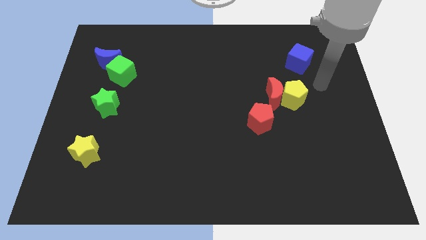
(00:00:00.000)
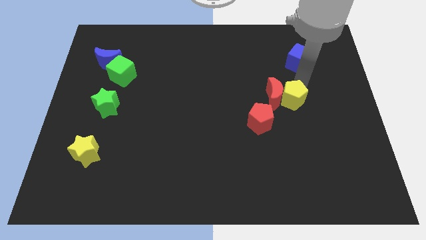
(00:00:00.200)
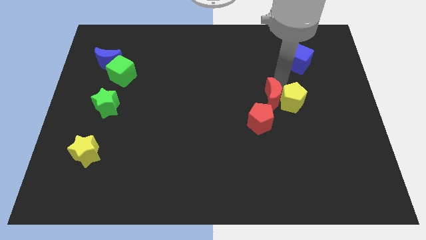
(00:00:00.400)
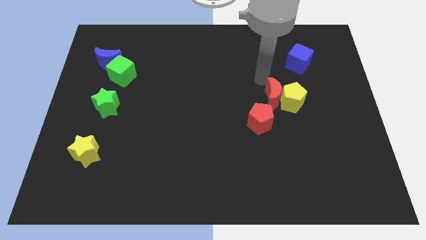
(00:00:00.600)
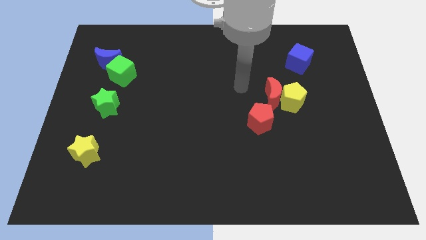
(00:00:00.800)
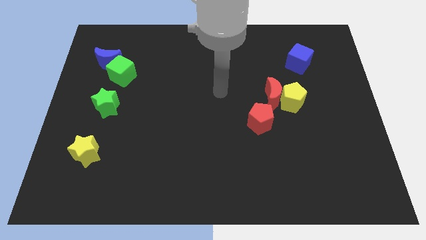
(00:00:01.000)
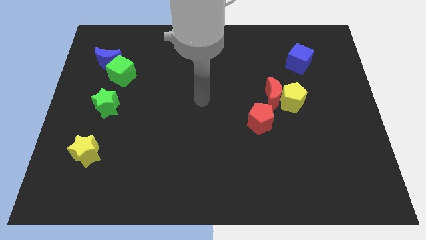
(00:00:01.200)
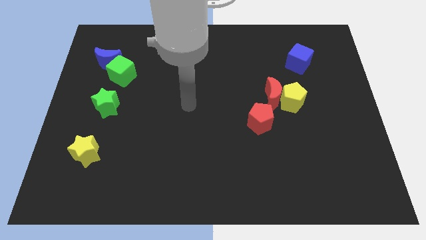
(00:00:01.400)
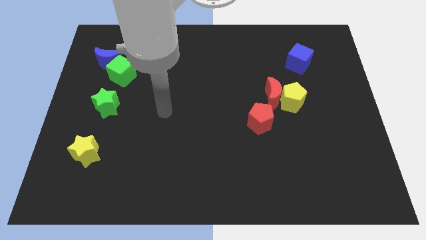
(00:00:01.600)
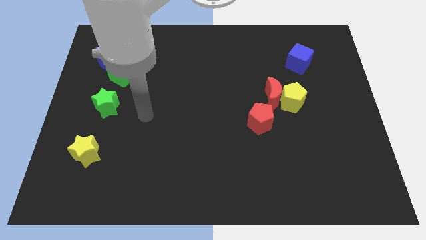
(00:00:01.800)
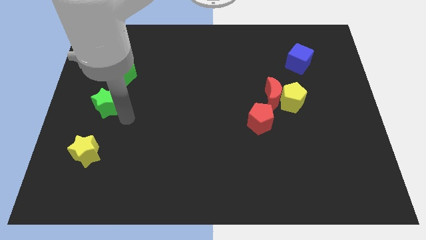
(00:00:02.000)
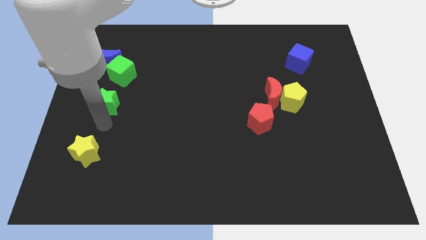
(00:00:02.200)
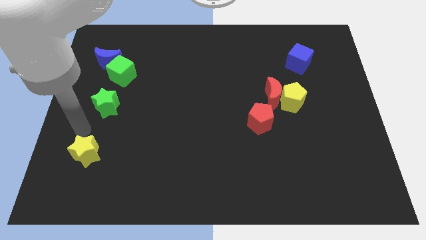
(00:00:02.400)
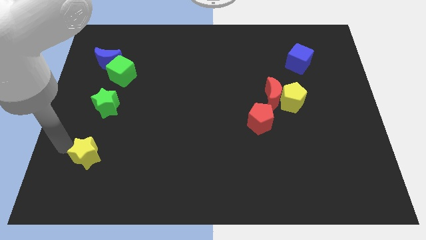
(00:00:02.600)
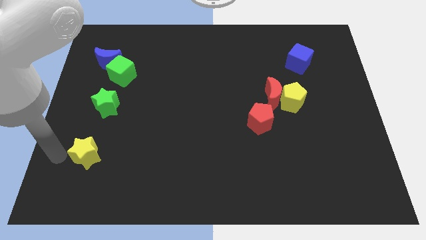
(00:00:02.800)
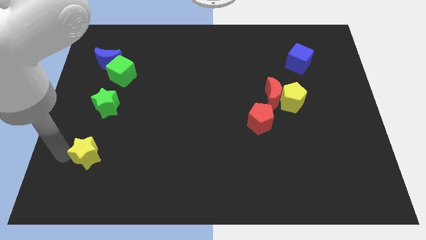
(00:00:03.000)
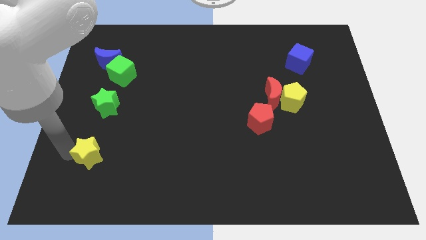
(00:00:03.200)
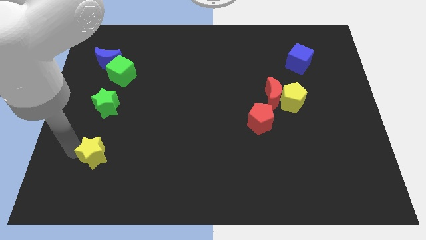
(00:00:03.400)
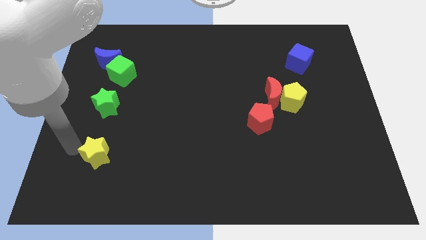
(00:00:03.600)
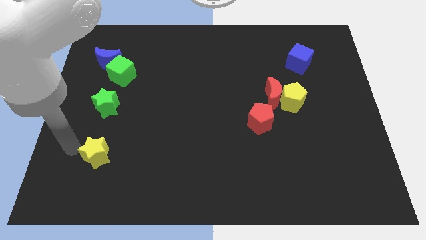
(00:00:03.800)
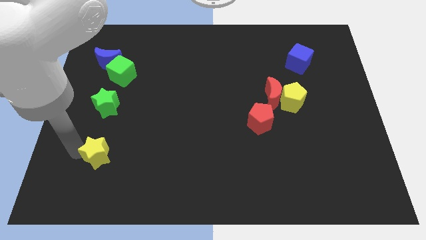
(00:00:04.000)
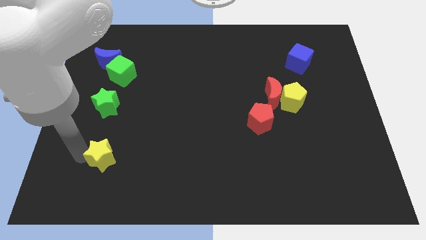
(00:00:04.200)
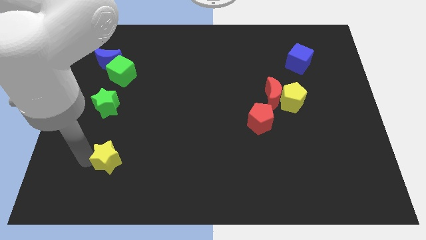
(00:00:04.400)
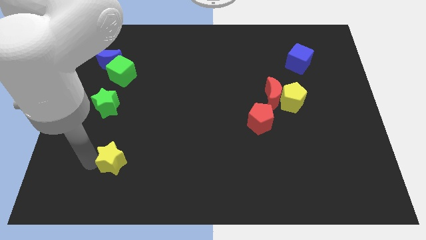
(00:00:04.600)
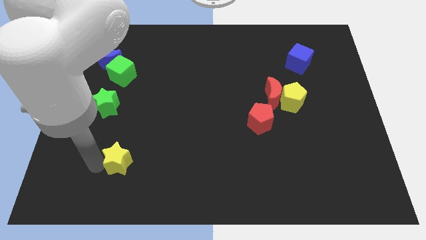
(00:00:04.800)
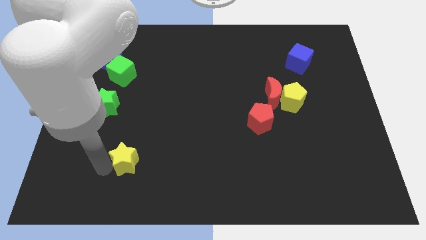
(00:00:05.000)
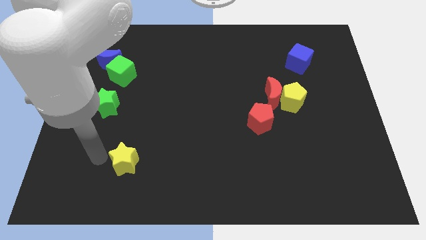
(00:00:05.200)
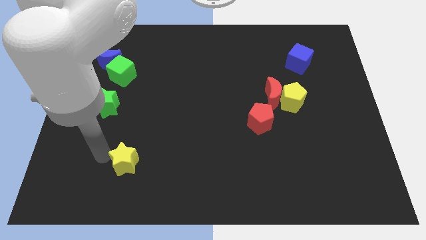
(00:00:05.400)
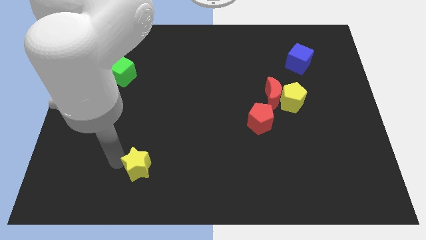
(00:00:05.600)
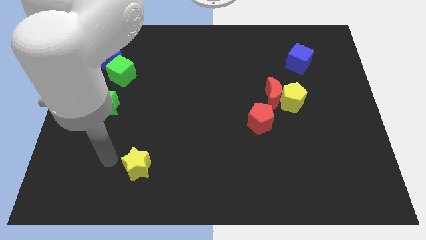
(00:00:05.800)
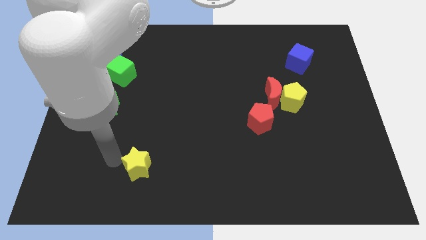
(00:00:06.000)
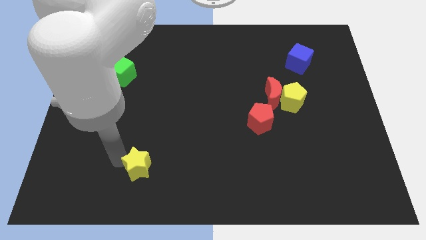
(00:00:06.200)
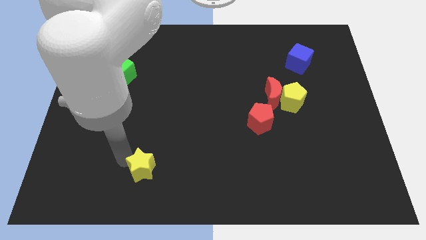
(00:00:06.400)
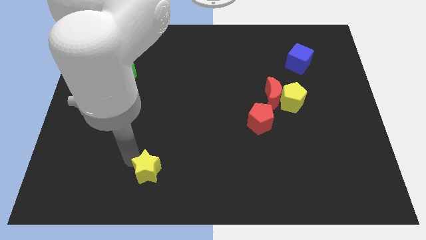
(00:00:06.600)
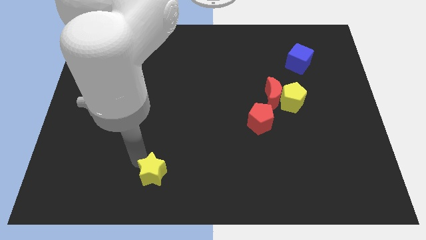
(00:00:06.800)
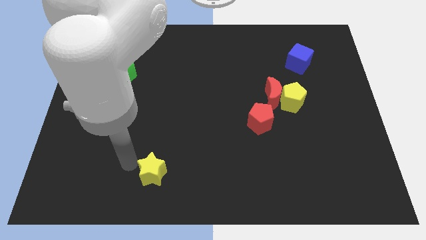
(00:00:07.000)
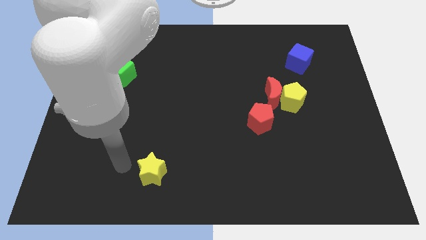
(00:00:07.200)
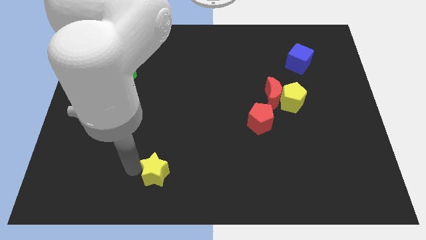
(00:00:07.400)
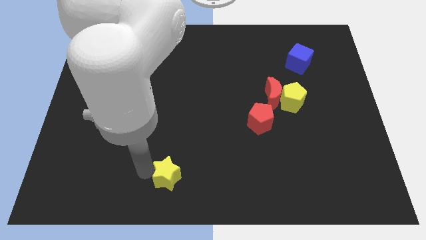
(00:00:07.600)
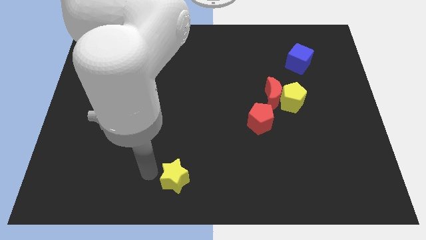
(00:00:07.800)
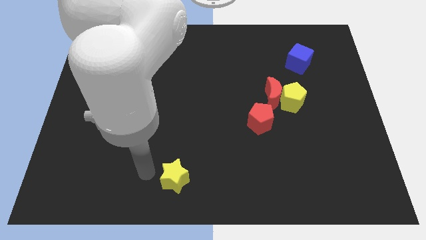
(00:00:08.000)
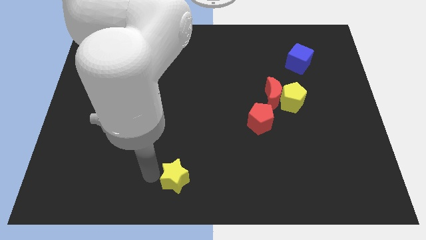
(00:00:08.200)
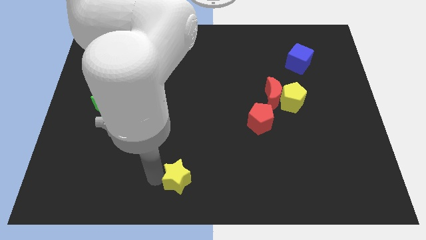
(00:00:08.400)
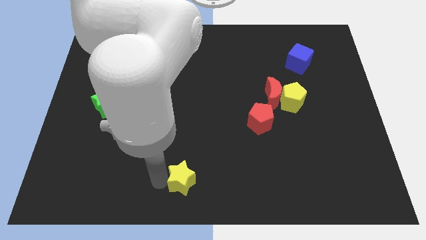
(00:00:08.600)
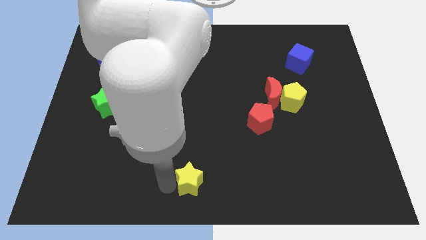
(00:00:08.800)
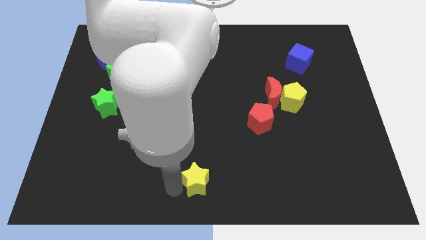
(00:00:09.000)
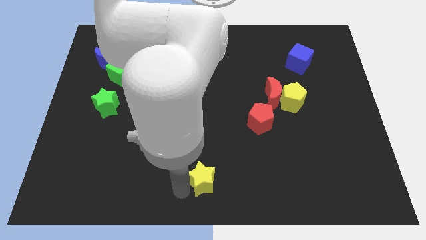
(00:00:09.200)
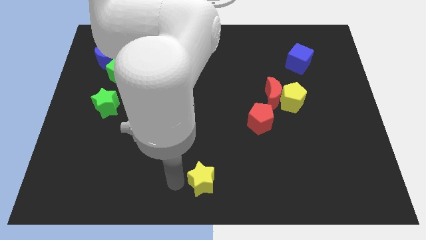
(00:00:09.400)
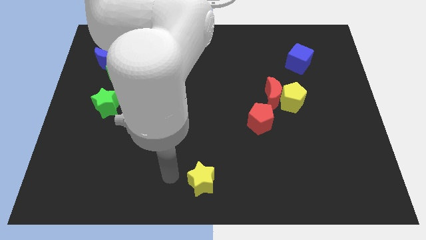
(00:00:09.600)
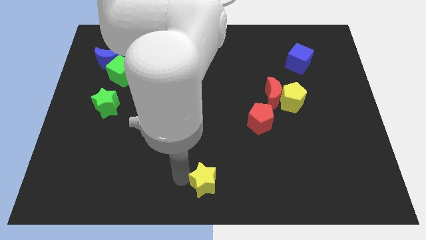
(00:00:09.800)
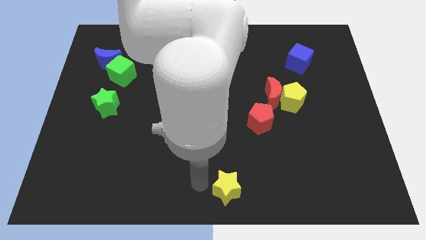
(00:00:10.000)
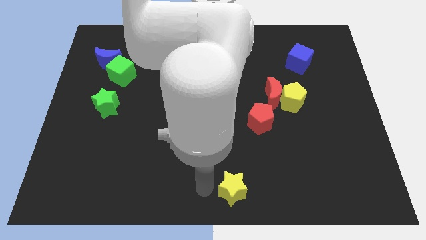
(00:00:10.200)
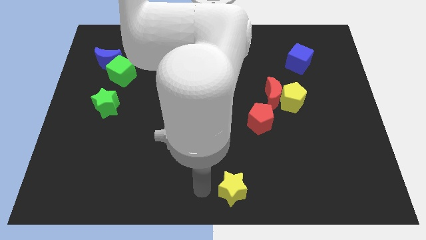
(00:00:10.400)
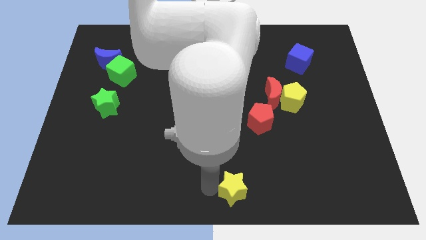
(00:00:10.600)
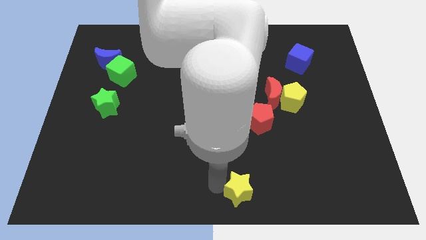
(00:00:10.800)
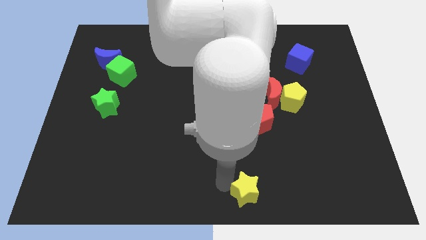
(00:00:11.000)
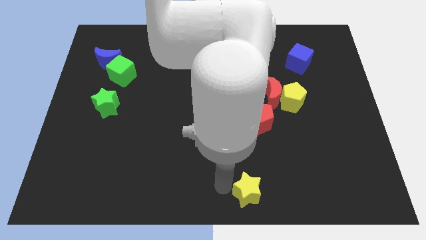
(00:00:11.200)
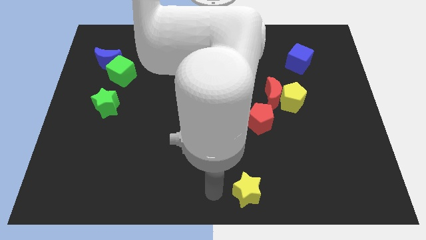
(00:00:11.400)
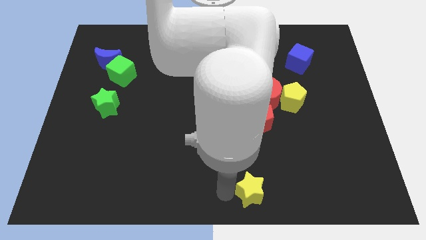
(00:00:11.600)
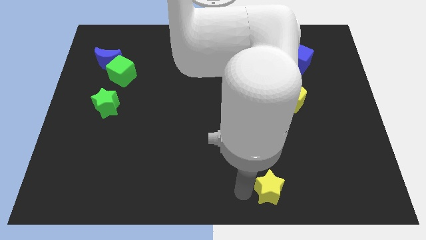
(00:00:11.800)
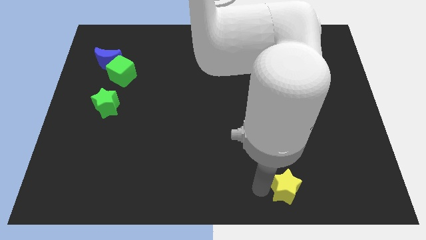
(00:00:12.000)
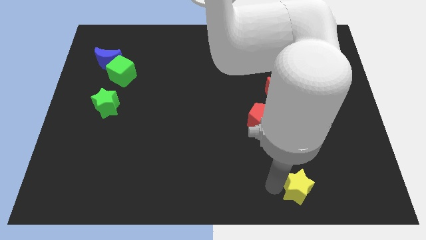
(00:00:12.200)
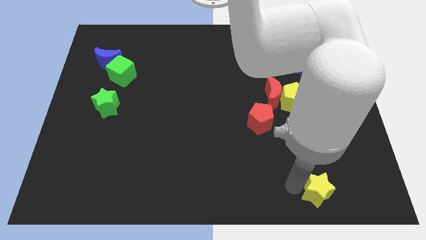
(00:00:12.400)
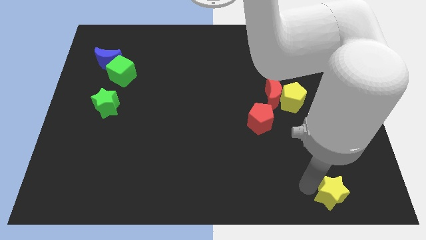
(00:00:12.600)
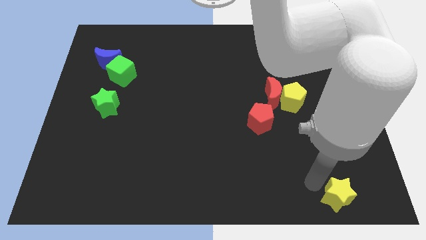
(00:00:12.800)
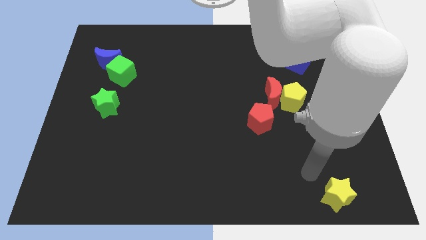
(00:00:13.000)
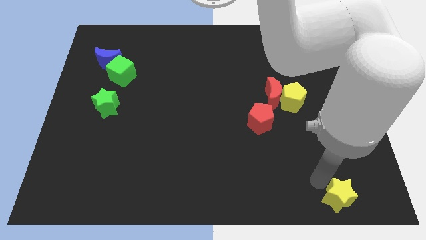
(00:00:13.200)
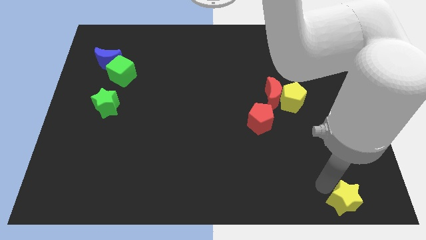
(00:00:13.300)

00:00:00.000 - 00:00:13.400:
push the yellow star to the lower right corner
